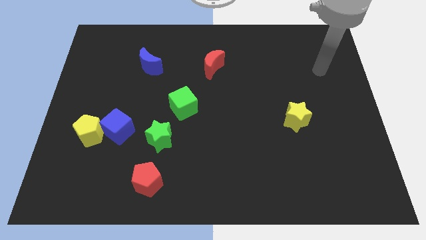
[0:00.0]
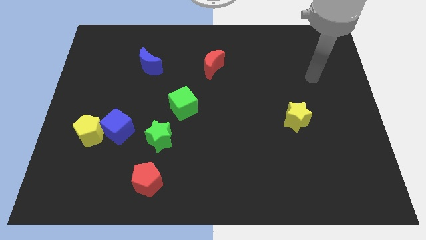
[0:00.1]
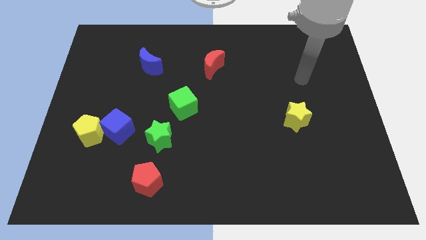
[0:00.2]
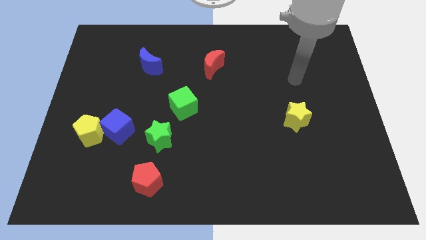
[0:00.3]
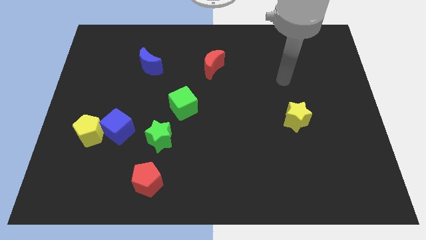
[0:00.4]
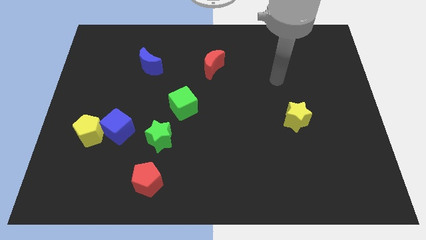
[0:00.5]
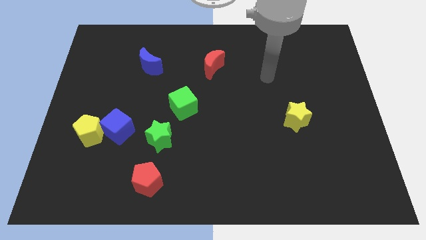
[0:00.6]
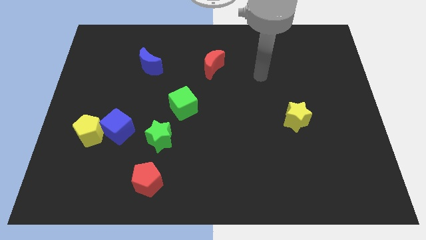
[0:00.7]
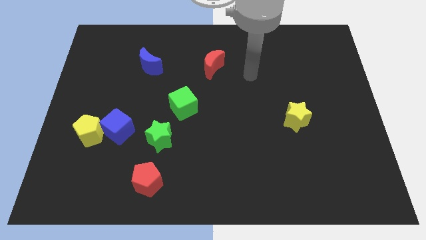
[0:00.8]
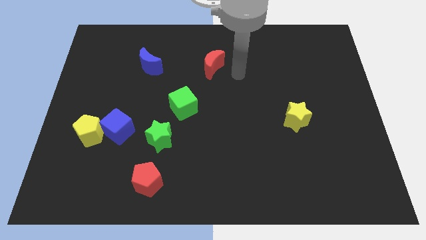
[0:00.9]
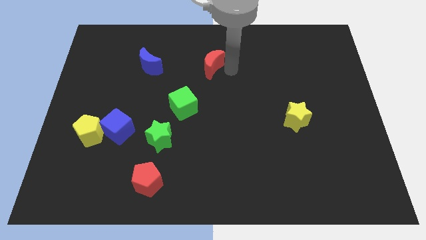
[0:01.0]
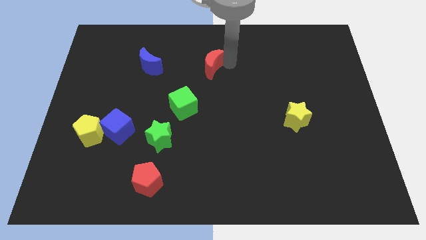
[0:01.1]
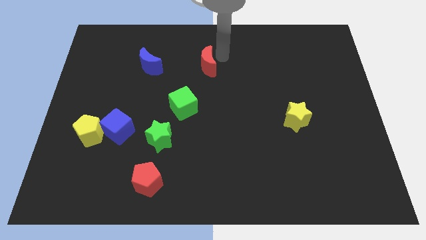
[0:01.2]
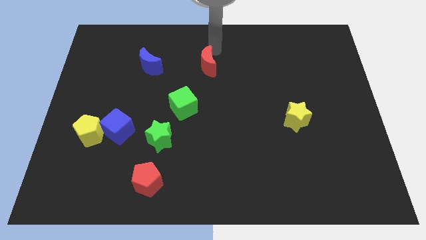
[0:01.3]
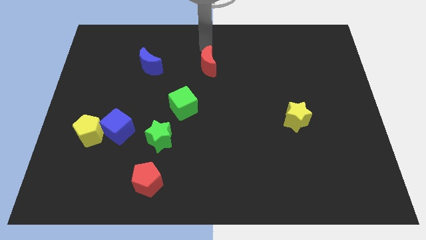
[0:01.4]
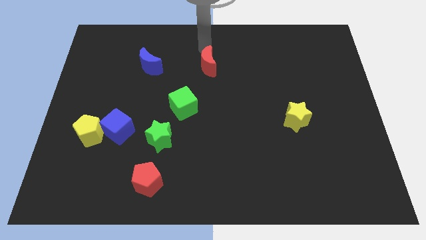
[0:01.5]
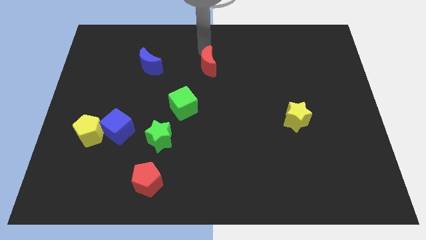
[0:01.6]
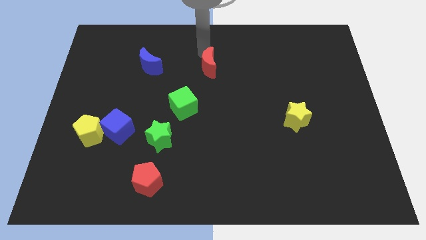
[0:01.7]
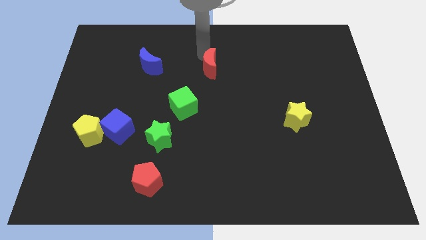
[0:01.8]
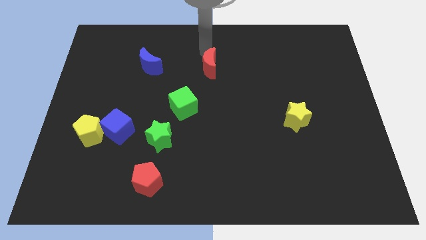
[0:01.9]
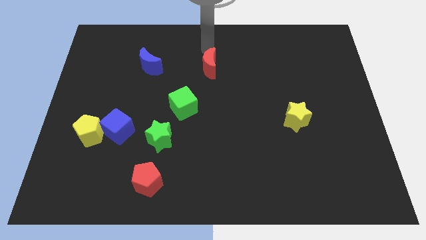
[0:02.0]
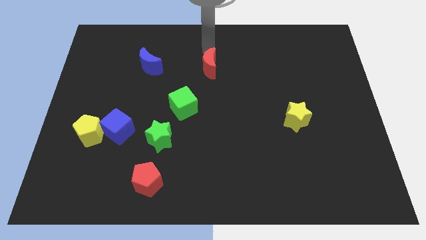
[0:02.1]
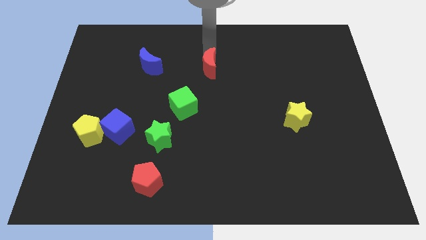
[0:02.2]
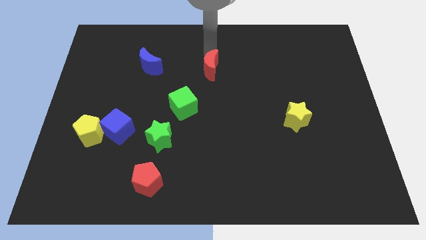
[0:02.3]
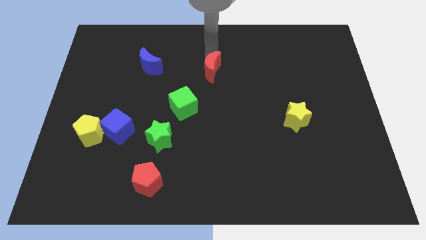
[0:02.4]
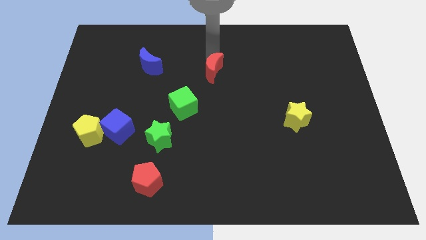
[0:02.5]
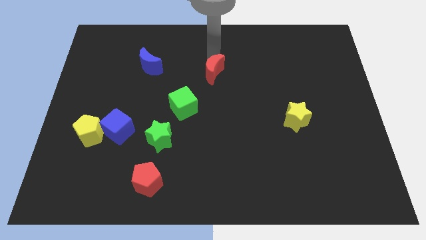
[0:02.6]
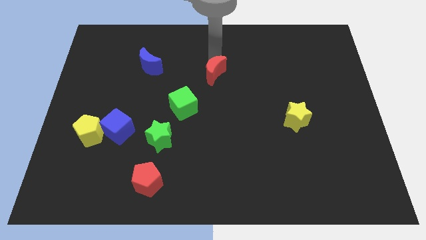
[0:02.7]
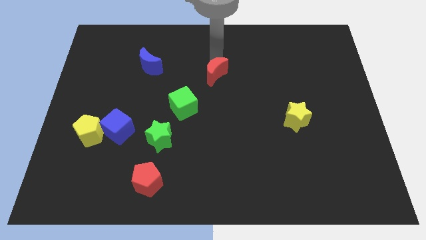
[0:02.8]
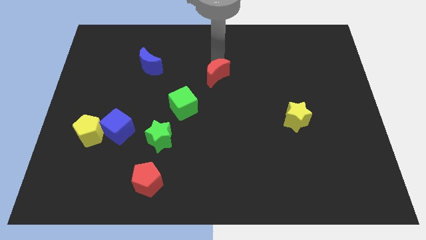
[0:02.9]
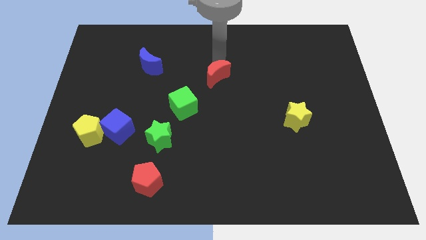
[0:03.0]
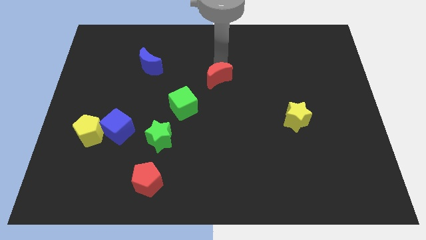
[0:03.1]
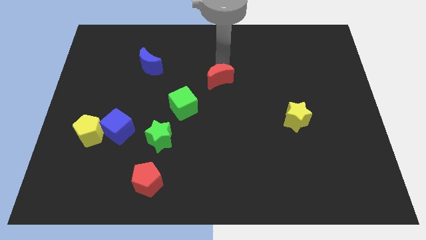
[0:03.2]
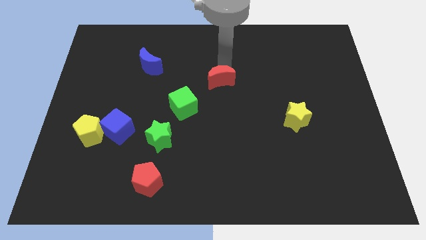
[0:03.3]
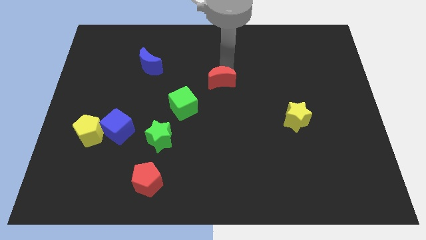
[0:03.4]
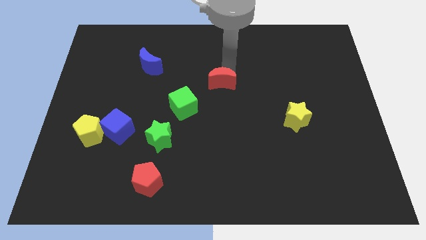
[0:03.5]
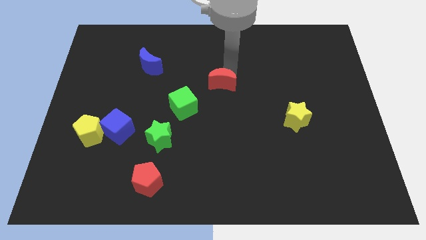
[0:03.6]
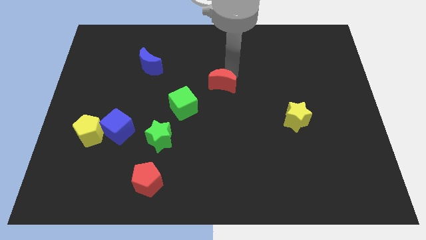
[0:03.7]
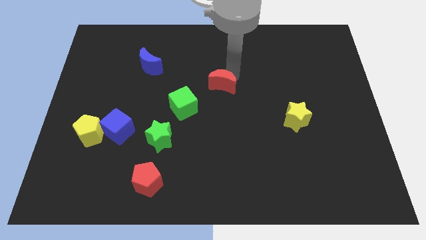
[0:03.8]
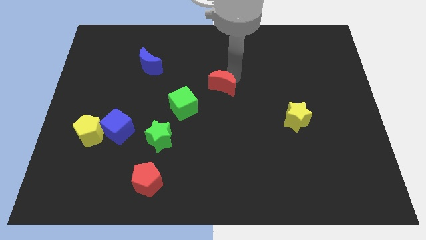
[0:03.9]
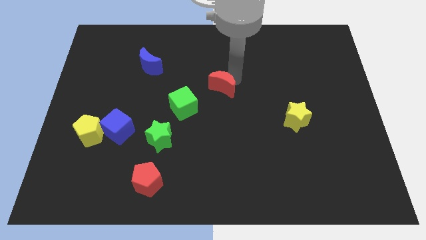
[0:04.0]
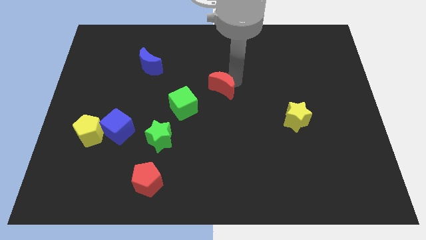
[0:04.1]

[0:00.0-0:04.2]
slightly move the red moon down

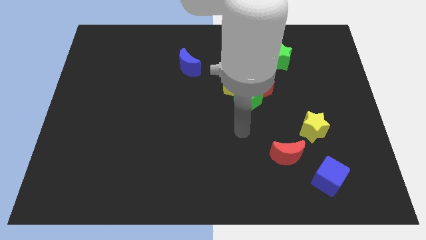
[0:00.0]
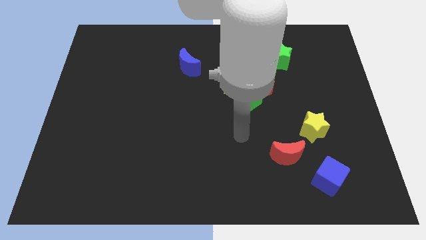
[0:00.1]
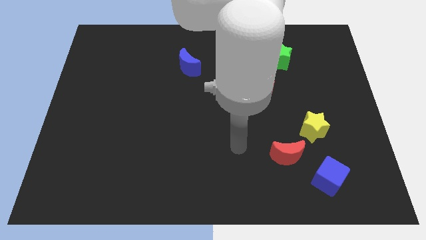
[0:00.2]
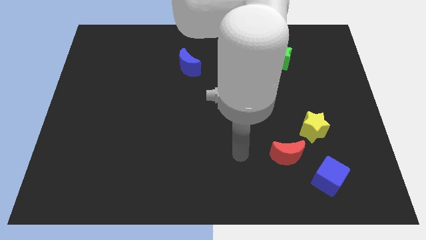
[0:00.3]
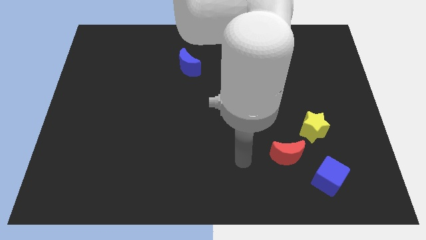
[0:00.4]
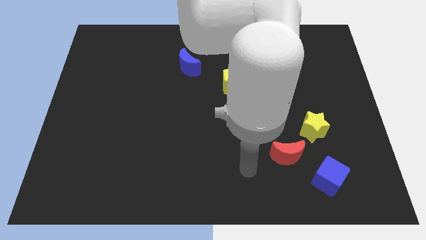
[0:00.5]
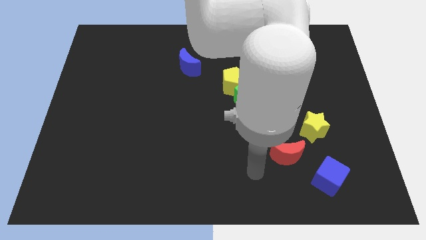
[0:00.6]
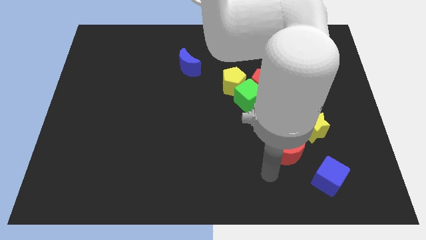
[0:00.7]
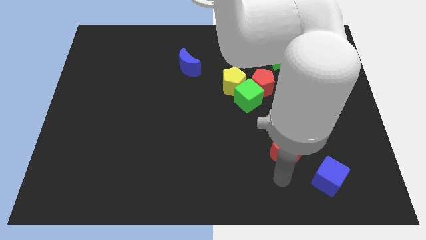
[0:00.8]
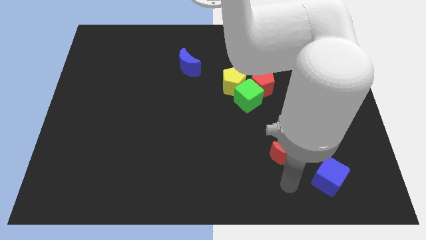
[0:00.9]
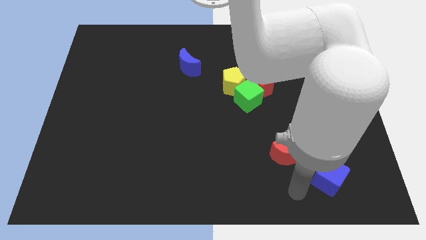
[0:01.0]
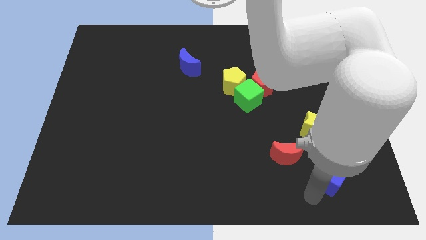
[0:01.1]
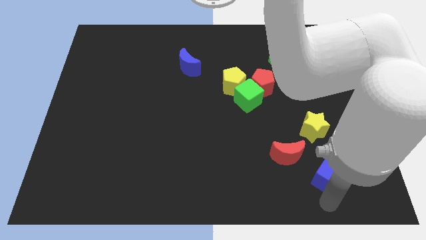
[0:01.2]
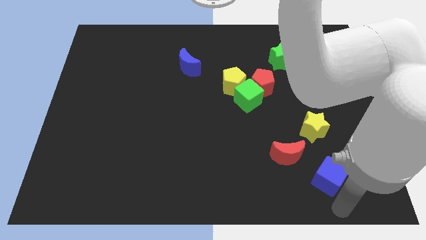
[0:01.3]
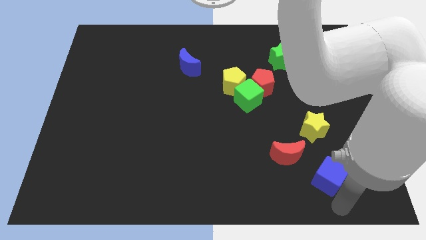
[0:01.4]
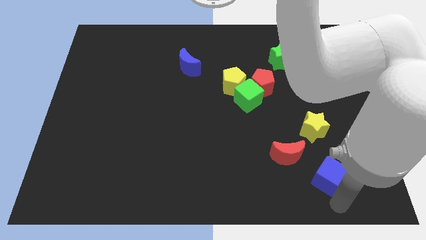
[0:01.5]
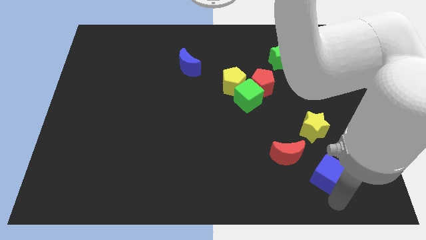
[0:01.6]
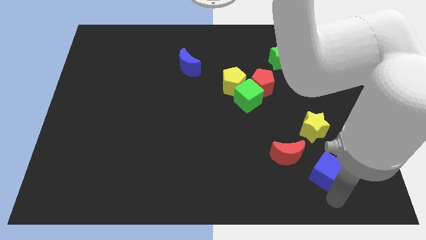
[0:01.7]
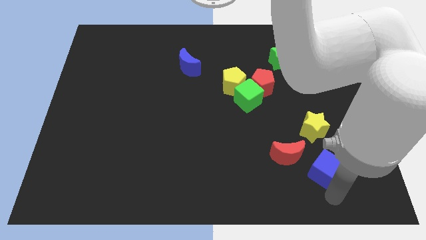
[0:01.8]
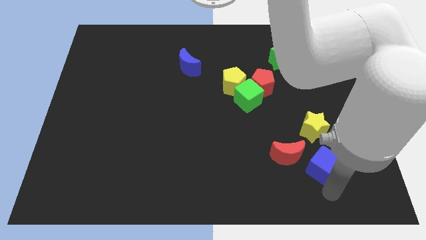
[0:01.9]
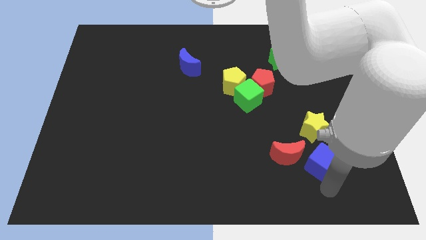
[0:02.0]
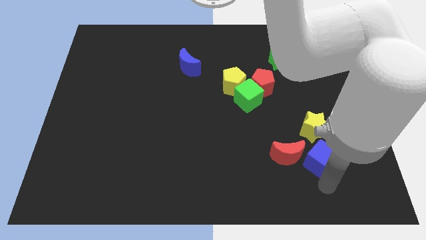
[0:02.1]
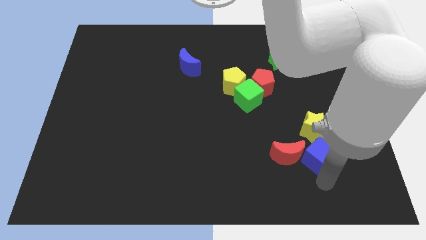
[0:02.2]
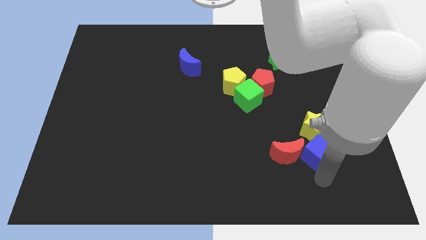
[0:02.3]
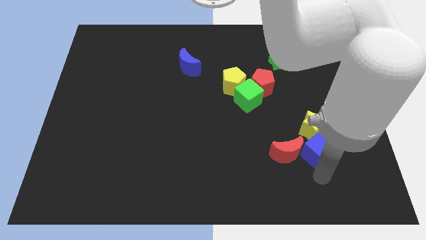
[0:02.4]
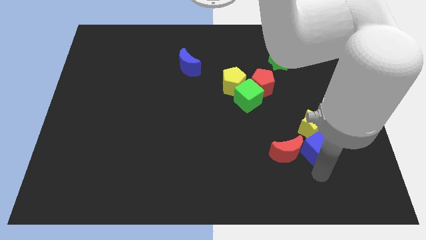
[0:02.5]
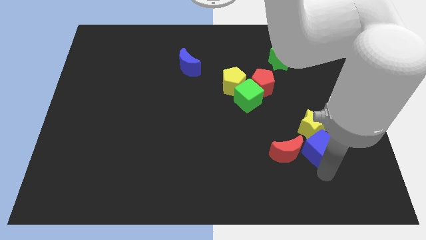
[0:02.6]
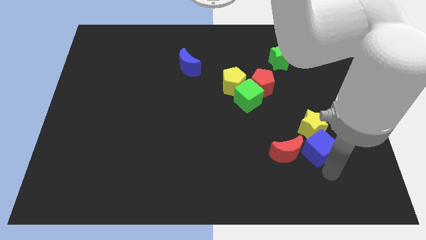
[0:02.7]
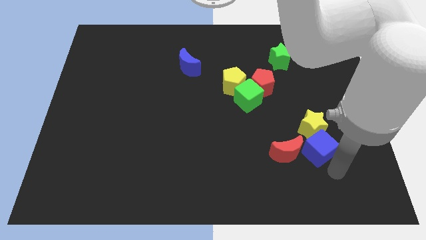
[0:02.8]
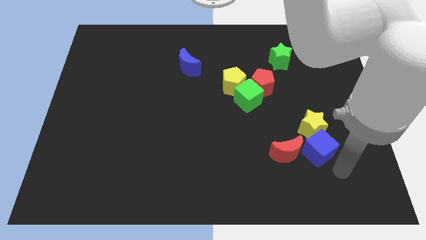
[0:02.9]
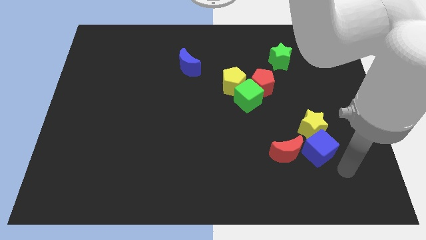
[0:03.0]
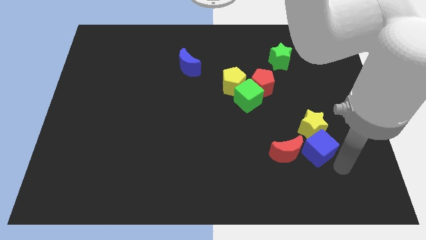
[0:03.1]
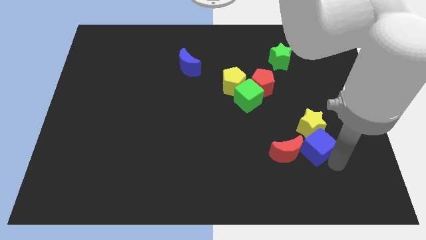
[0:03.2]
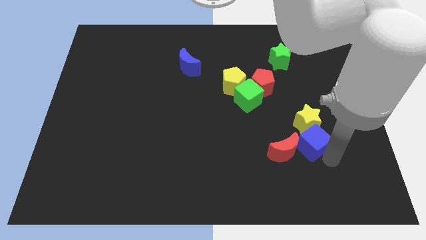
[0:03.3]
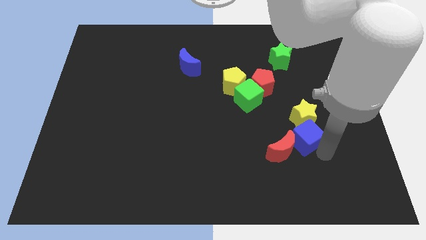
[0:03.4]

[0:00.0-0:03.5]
push the blue cube diagonally up and to the left somewhat
